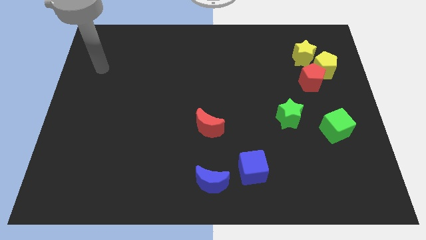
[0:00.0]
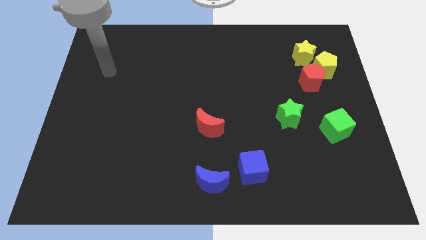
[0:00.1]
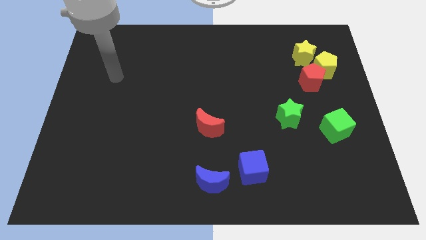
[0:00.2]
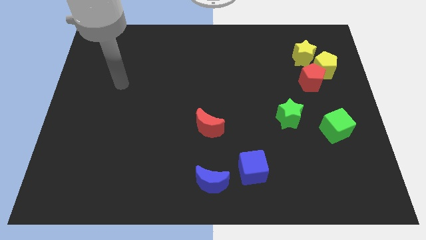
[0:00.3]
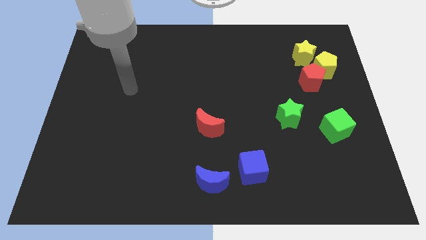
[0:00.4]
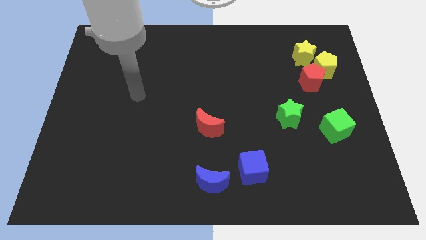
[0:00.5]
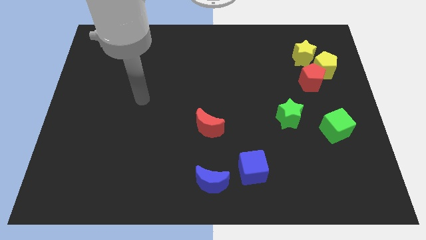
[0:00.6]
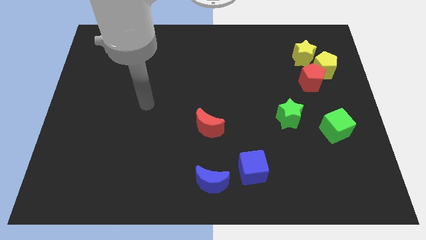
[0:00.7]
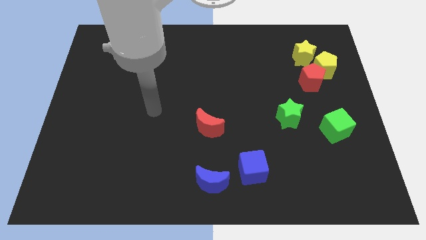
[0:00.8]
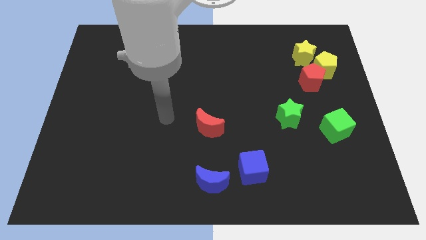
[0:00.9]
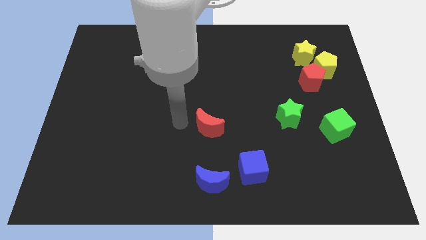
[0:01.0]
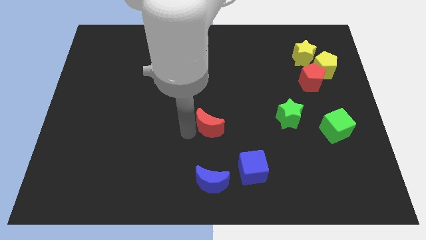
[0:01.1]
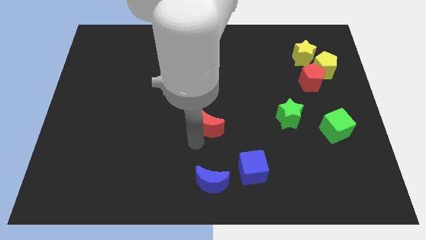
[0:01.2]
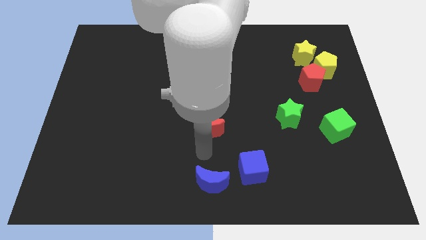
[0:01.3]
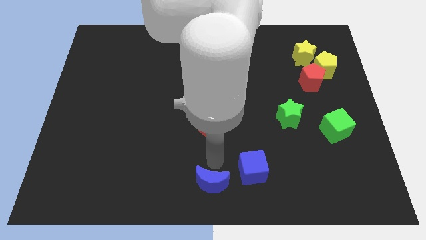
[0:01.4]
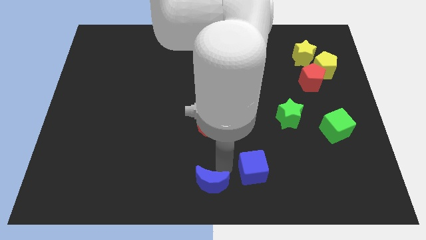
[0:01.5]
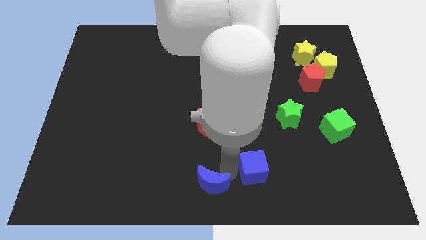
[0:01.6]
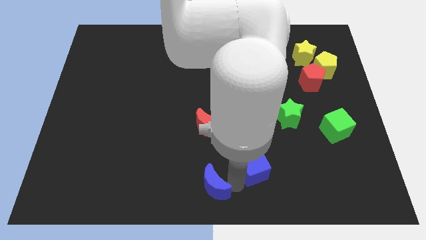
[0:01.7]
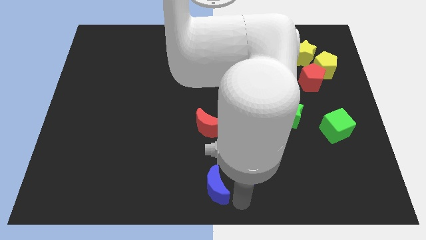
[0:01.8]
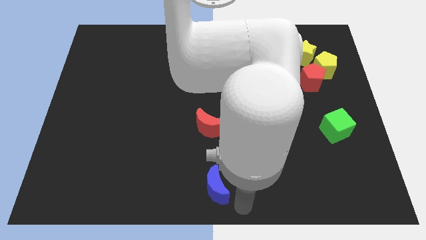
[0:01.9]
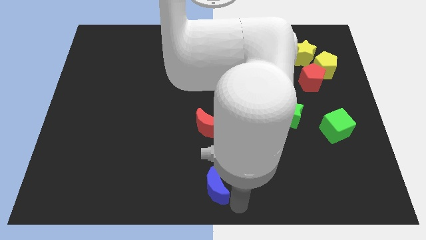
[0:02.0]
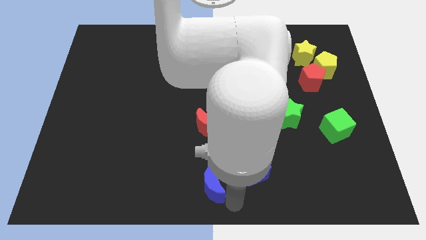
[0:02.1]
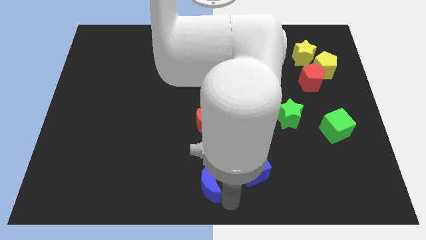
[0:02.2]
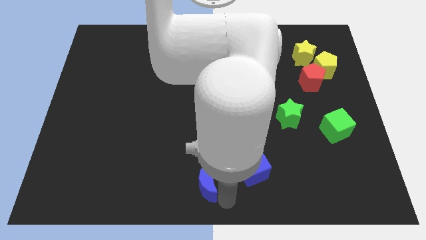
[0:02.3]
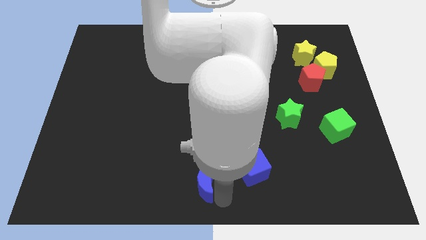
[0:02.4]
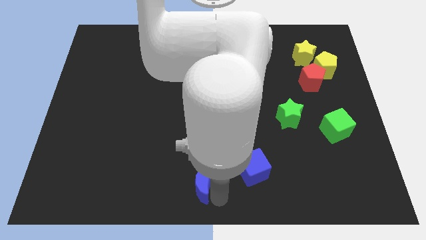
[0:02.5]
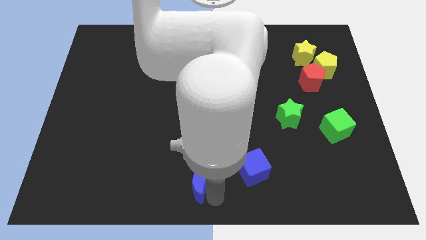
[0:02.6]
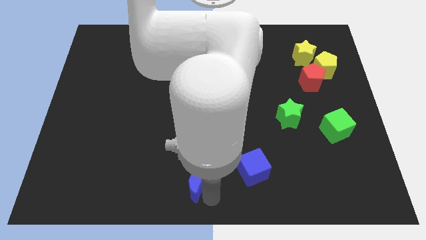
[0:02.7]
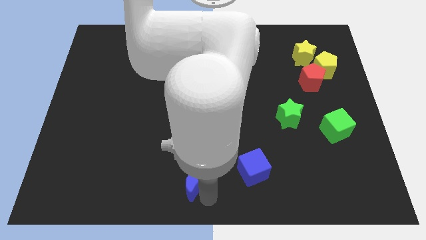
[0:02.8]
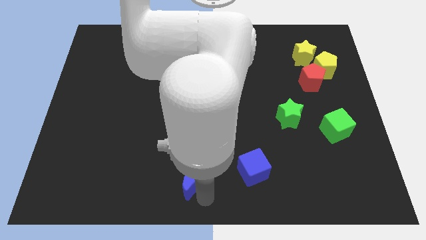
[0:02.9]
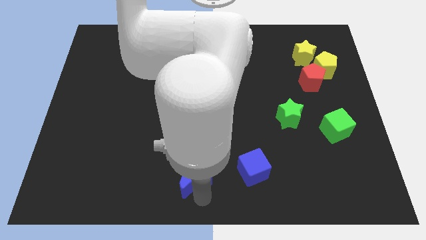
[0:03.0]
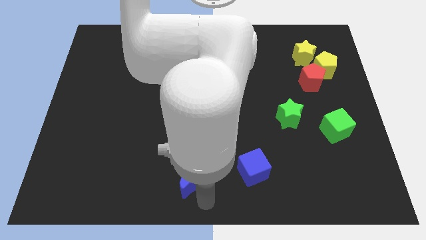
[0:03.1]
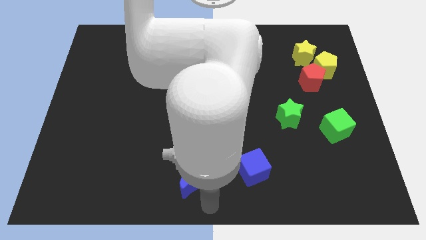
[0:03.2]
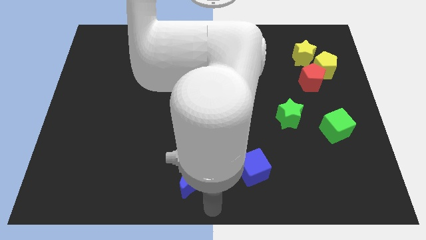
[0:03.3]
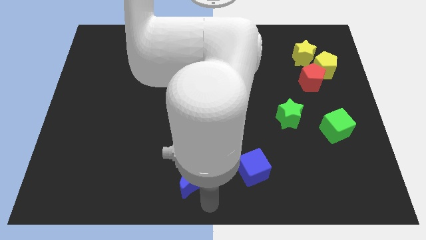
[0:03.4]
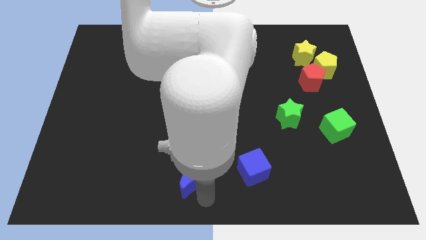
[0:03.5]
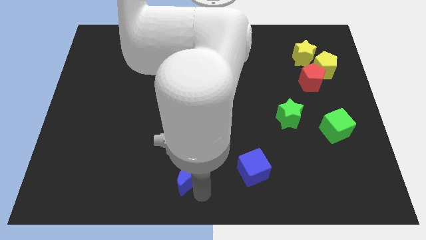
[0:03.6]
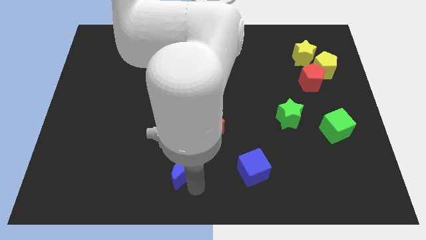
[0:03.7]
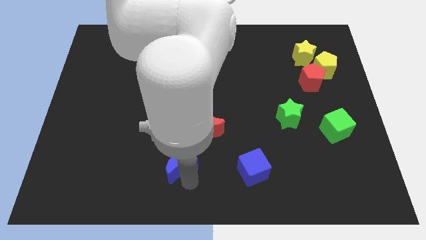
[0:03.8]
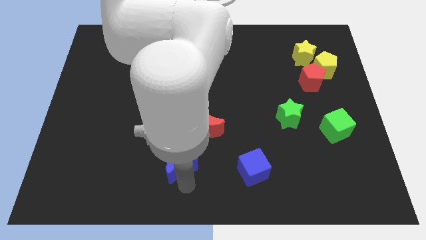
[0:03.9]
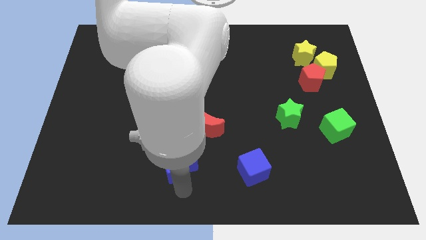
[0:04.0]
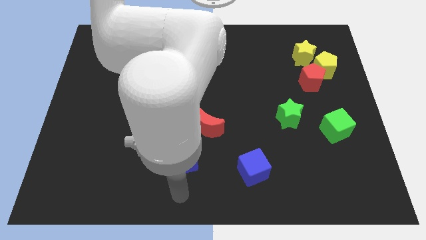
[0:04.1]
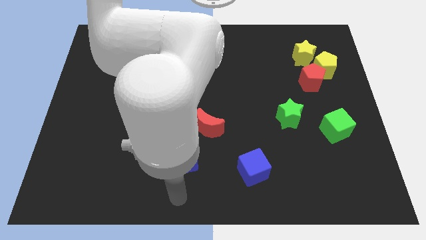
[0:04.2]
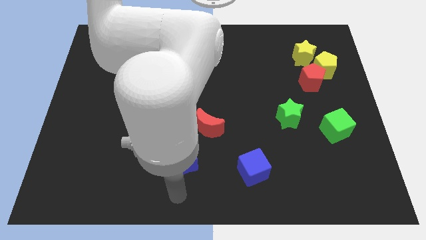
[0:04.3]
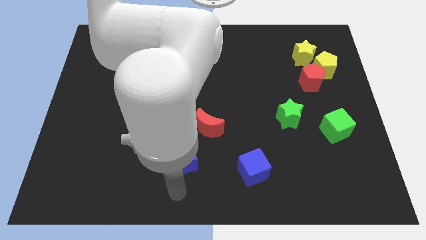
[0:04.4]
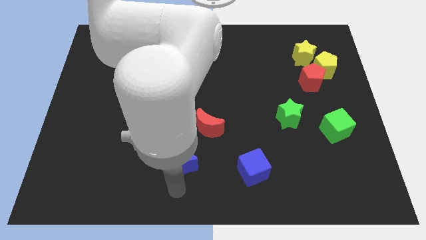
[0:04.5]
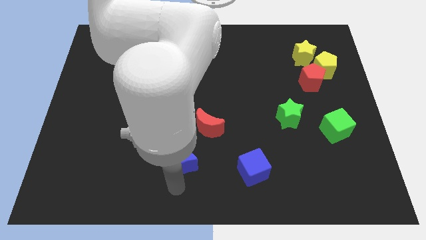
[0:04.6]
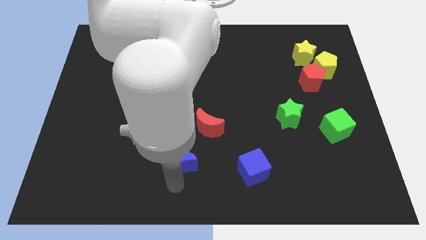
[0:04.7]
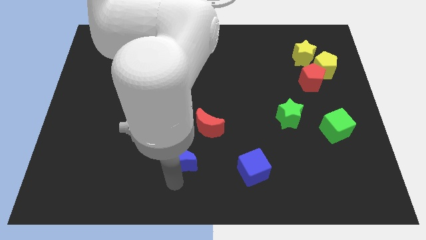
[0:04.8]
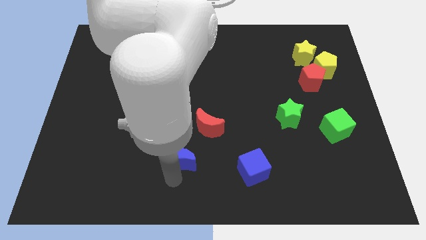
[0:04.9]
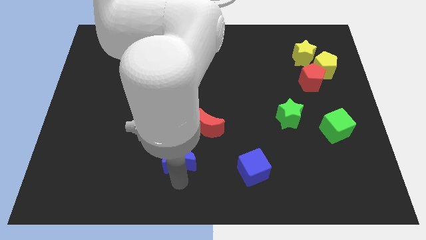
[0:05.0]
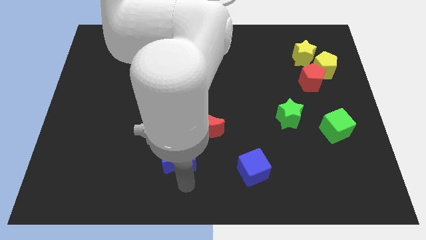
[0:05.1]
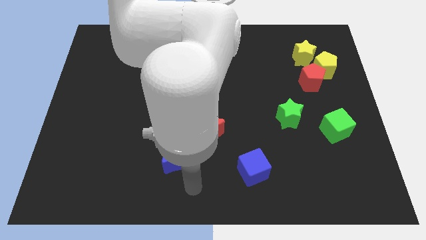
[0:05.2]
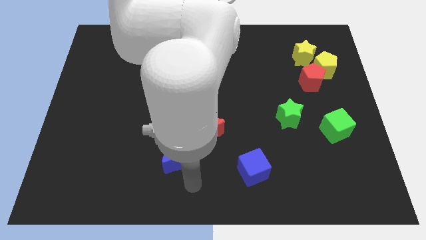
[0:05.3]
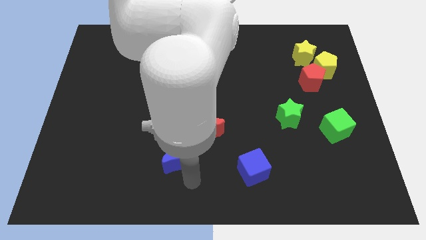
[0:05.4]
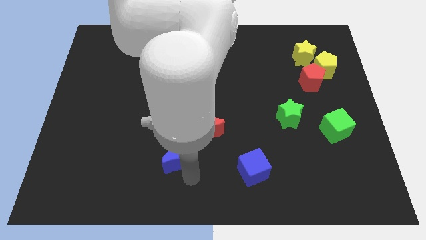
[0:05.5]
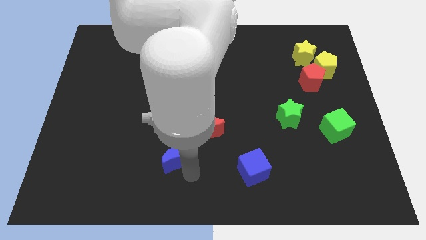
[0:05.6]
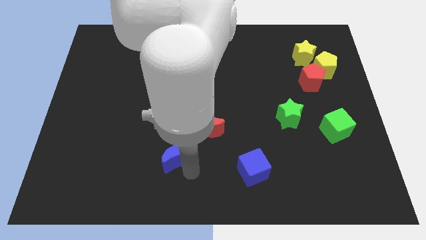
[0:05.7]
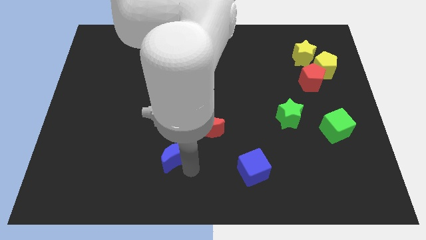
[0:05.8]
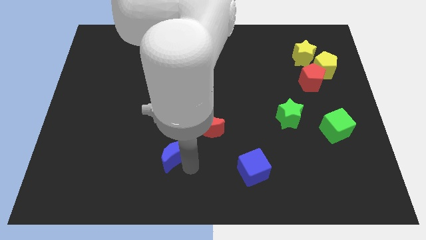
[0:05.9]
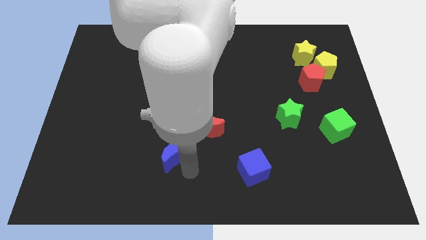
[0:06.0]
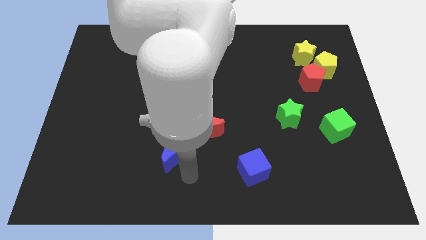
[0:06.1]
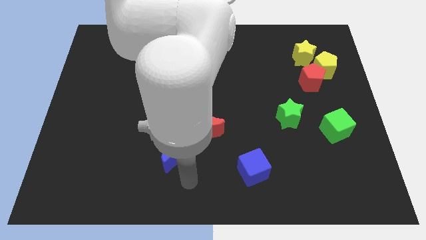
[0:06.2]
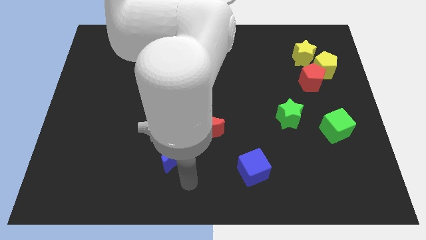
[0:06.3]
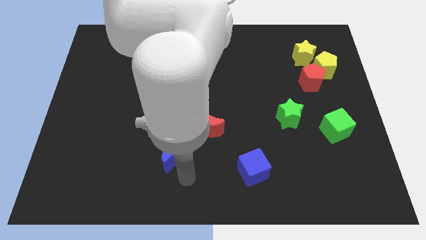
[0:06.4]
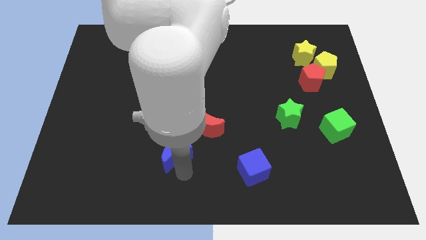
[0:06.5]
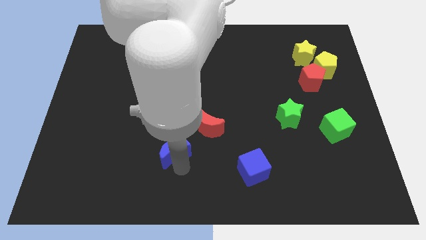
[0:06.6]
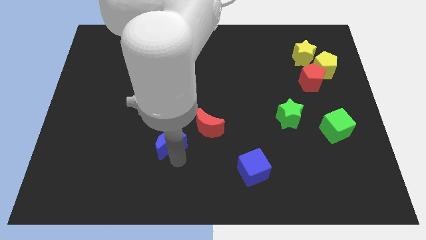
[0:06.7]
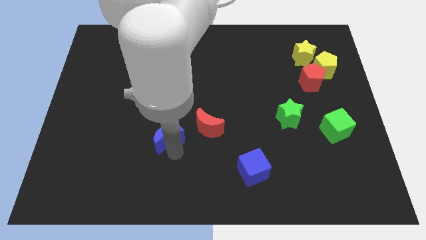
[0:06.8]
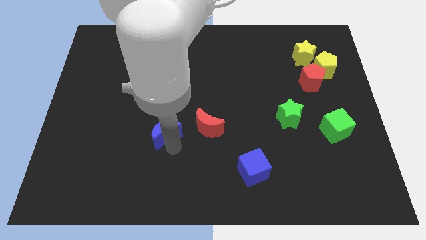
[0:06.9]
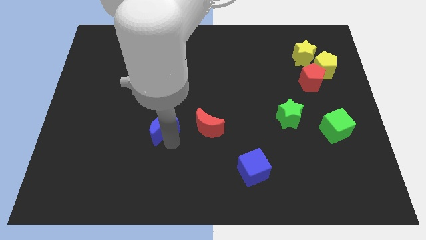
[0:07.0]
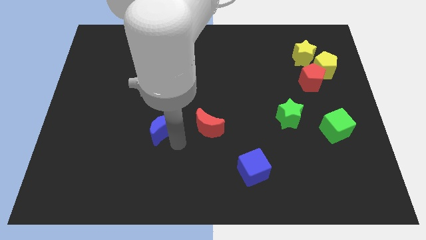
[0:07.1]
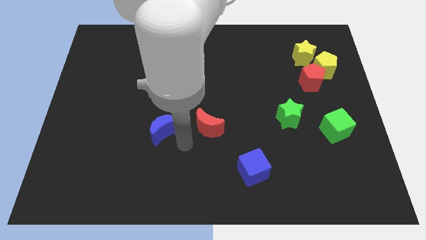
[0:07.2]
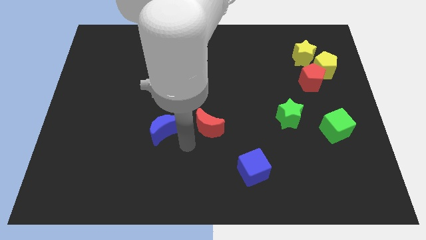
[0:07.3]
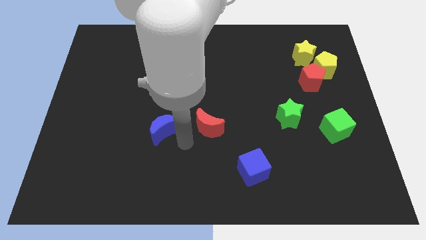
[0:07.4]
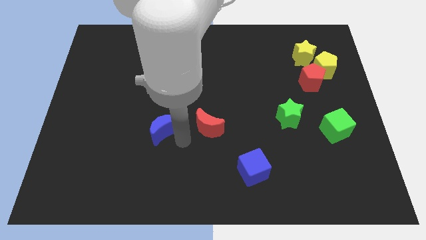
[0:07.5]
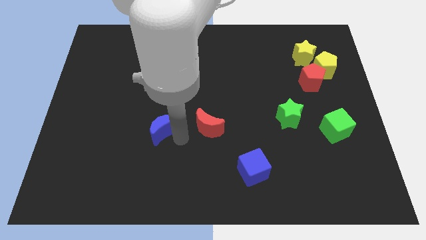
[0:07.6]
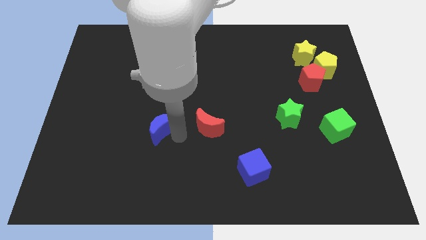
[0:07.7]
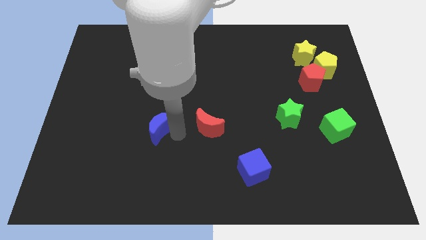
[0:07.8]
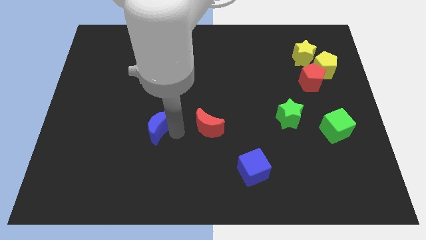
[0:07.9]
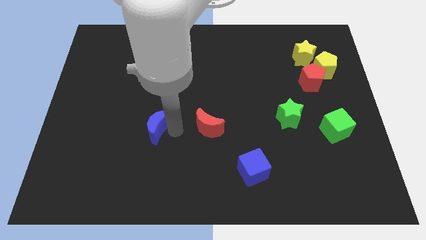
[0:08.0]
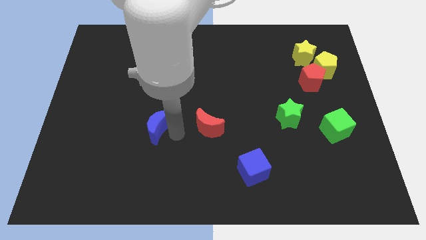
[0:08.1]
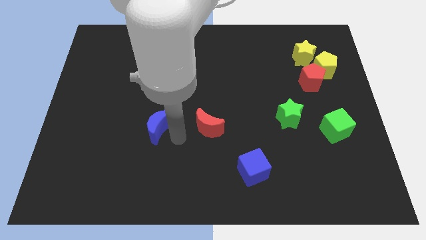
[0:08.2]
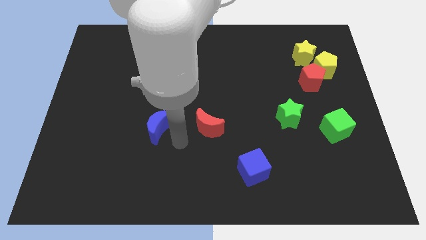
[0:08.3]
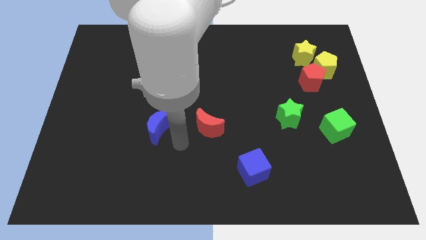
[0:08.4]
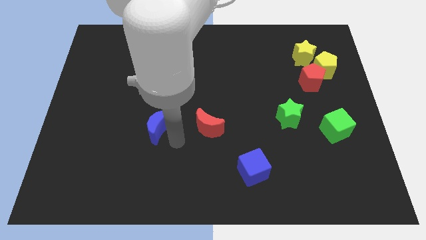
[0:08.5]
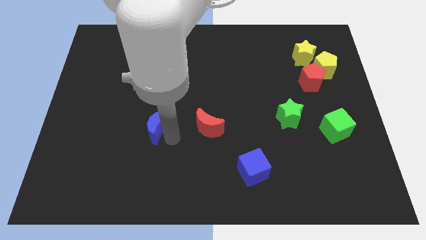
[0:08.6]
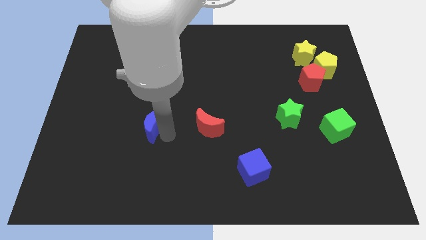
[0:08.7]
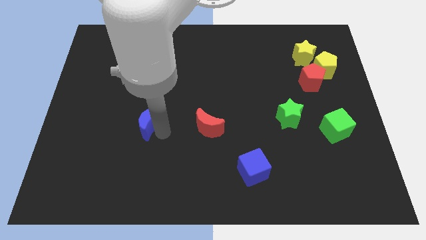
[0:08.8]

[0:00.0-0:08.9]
push the blue moon upwards and then to the left
